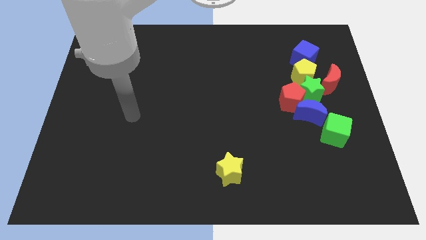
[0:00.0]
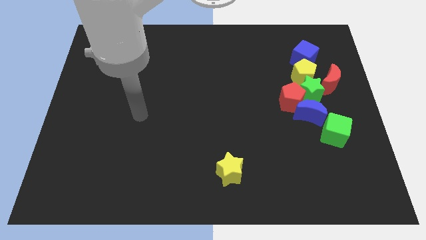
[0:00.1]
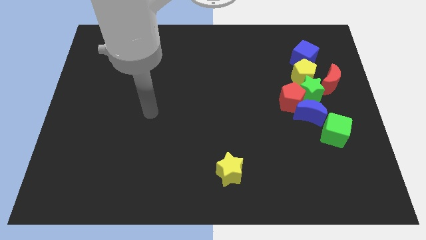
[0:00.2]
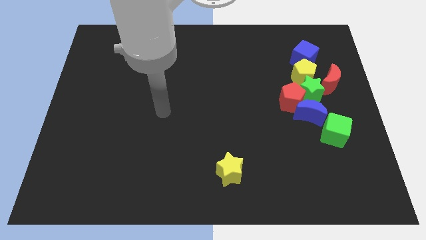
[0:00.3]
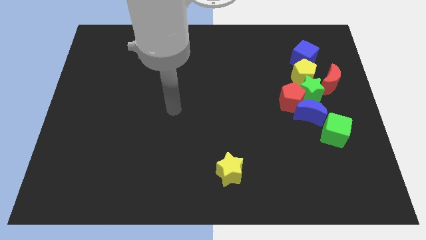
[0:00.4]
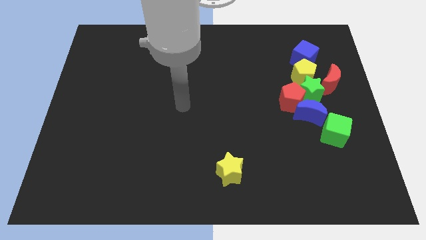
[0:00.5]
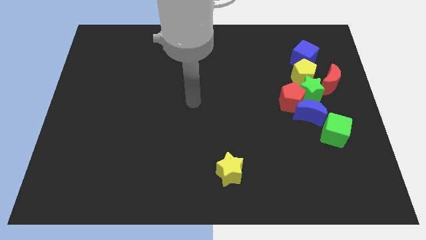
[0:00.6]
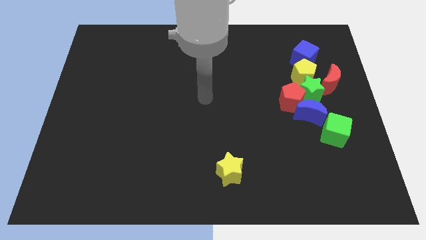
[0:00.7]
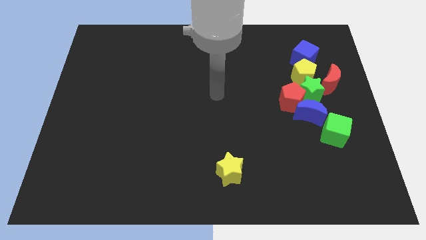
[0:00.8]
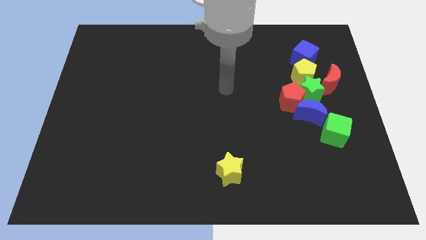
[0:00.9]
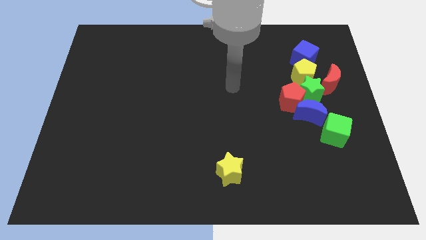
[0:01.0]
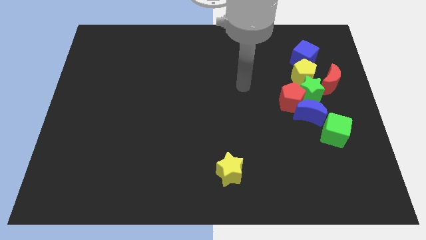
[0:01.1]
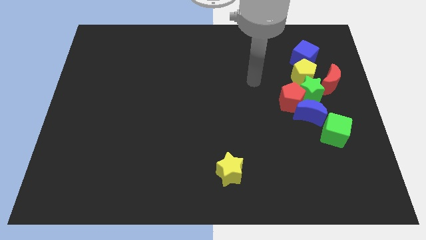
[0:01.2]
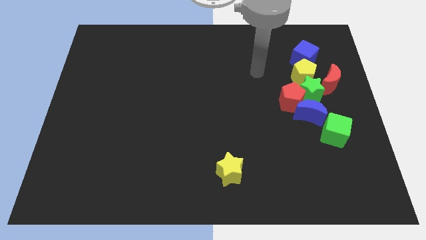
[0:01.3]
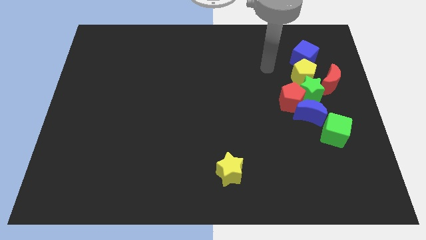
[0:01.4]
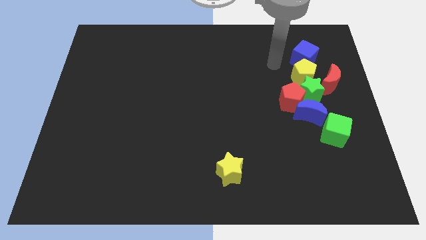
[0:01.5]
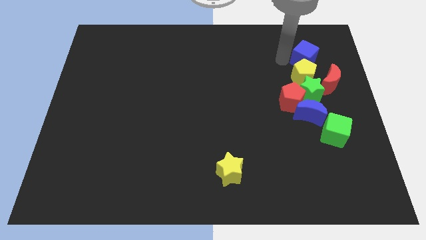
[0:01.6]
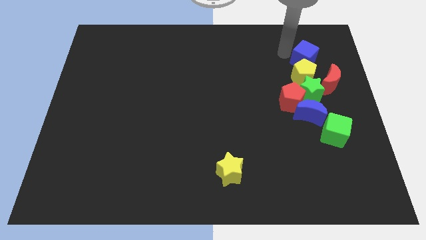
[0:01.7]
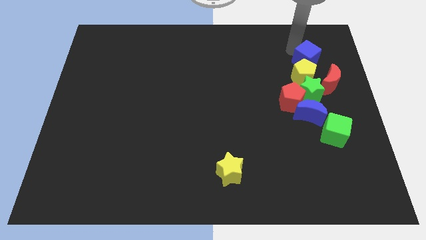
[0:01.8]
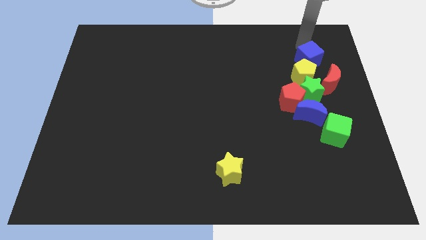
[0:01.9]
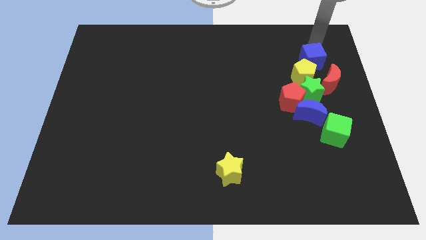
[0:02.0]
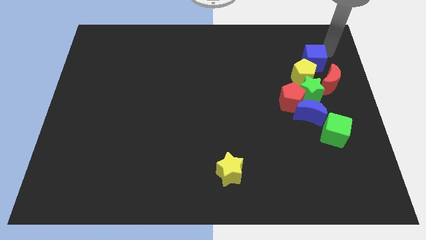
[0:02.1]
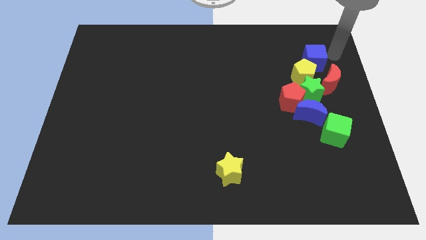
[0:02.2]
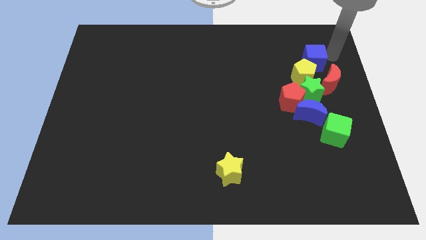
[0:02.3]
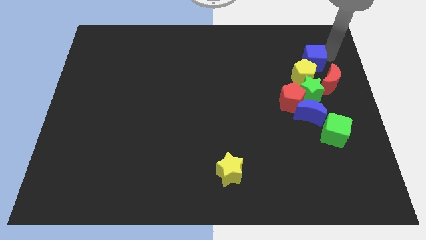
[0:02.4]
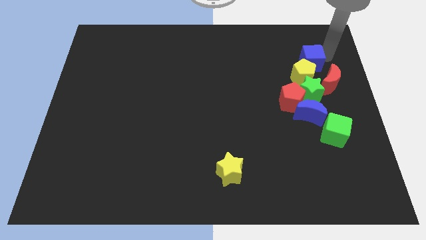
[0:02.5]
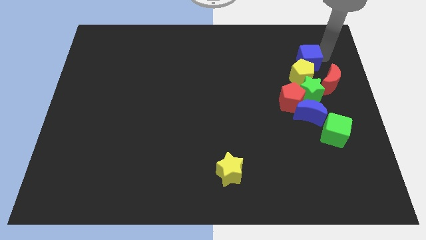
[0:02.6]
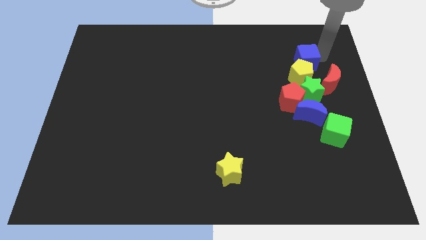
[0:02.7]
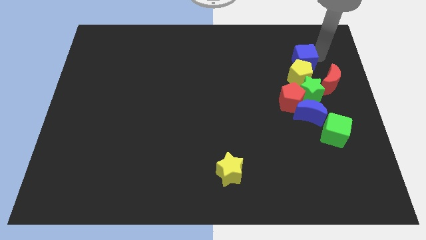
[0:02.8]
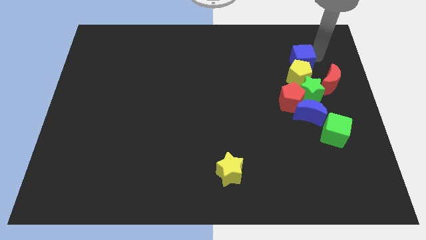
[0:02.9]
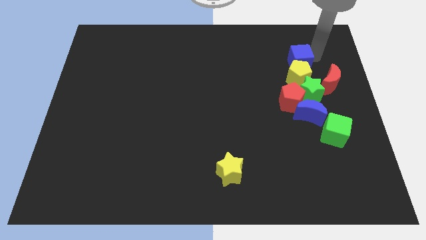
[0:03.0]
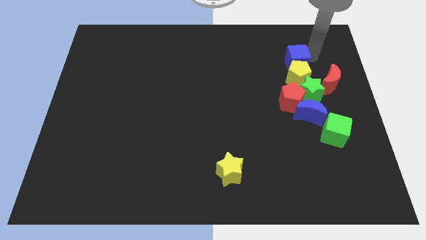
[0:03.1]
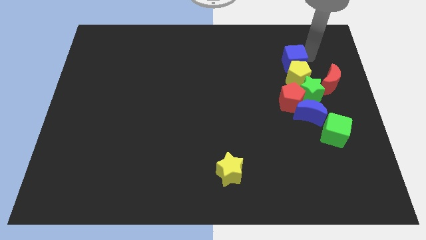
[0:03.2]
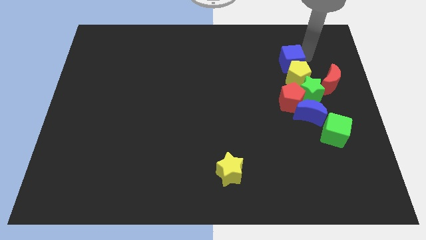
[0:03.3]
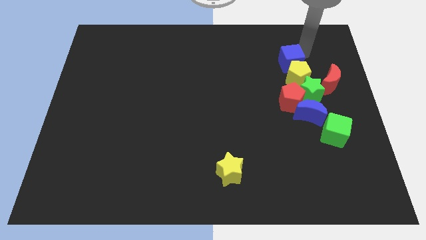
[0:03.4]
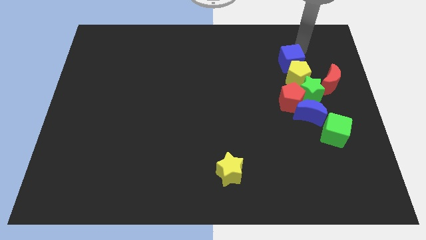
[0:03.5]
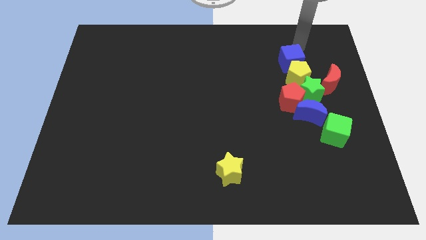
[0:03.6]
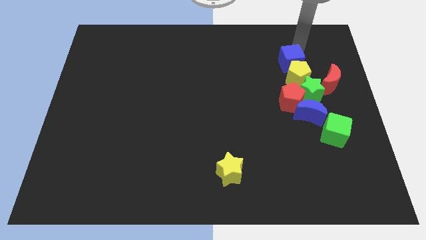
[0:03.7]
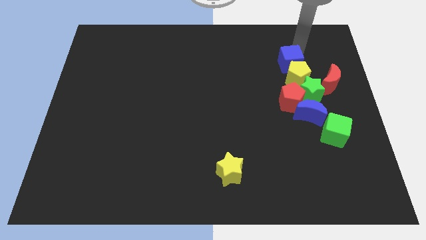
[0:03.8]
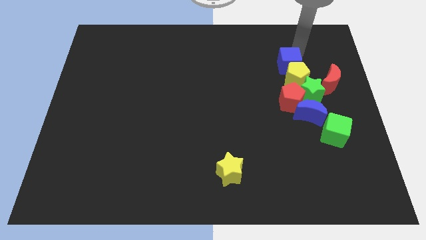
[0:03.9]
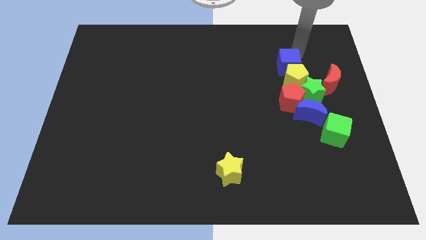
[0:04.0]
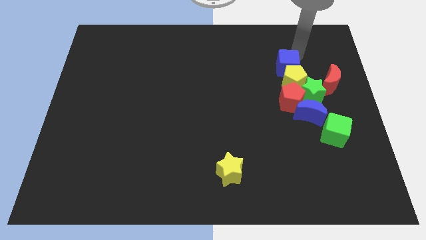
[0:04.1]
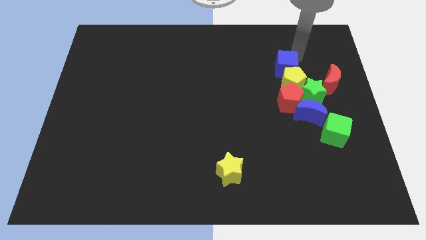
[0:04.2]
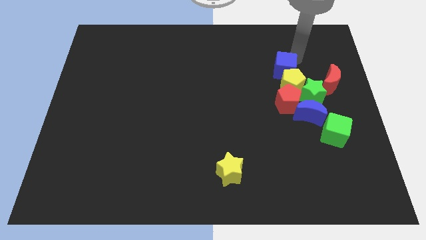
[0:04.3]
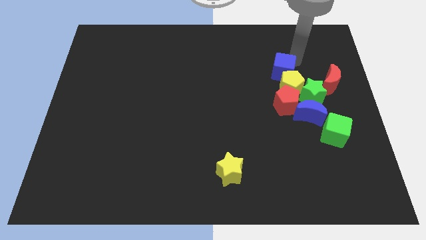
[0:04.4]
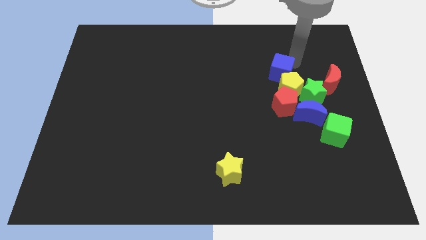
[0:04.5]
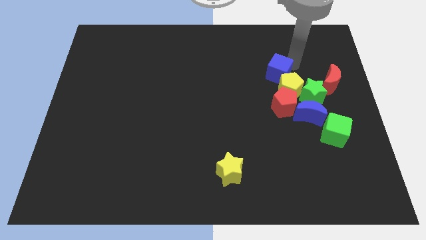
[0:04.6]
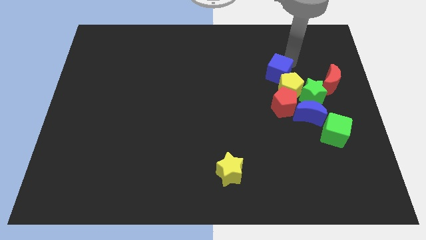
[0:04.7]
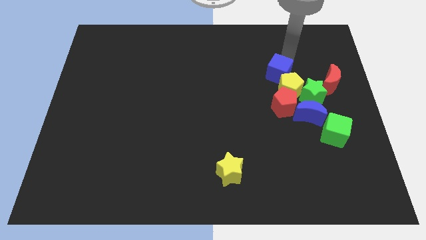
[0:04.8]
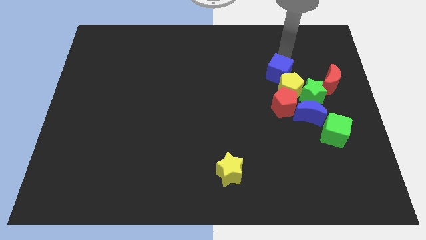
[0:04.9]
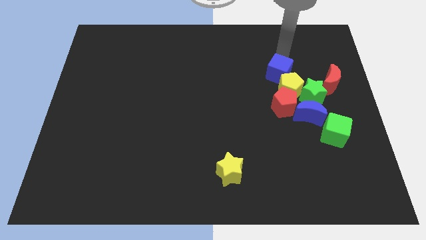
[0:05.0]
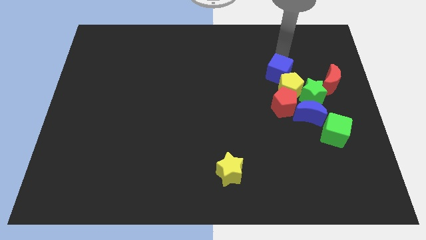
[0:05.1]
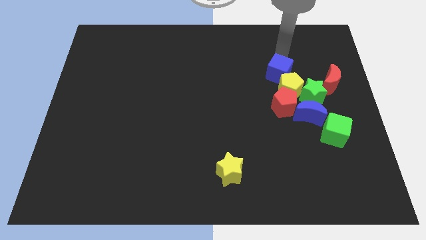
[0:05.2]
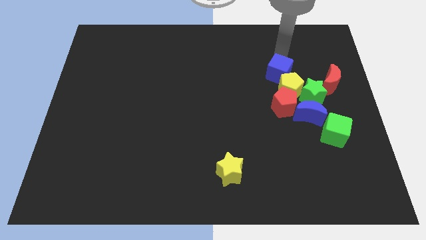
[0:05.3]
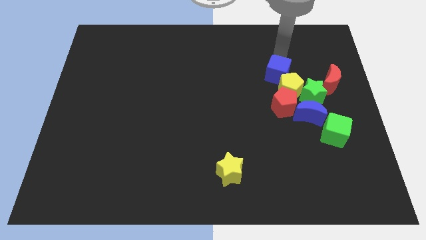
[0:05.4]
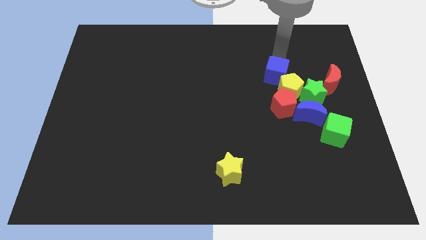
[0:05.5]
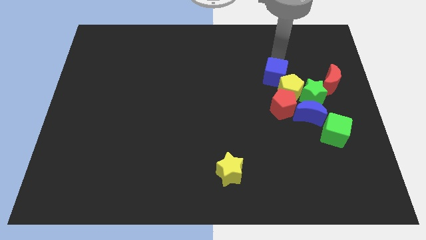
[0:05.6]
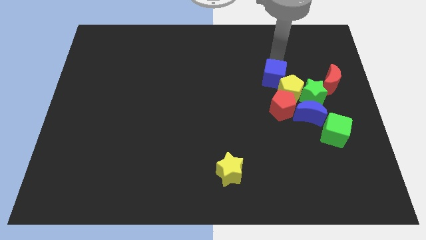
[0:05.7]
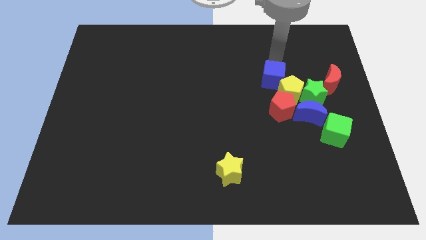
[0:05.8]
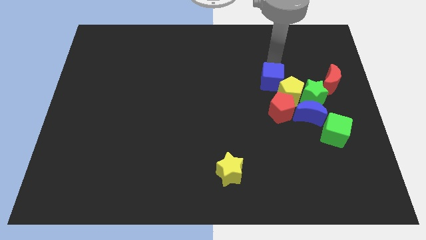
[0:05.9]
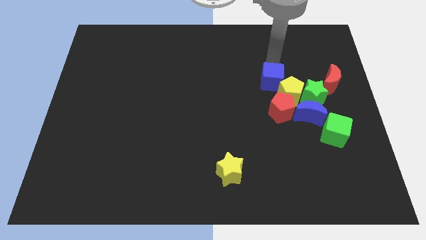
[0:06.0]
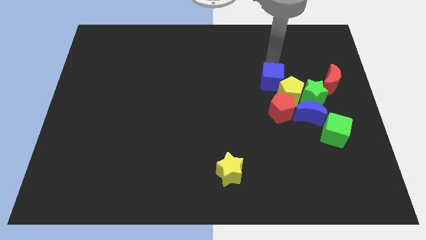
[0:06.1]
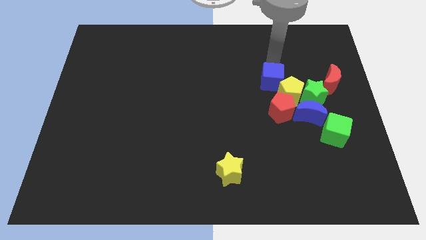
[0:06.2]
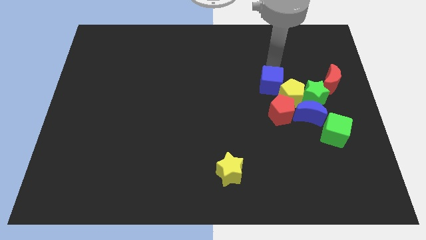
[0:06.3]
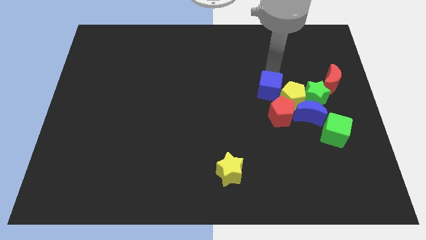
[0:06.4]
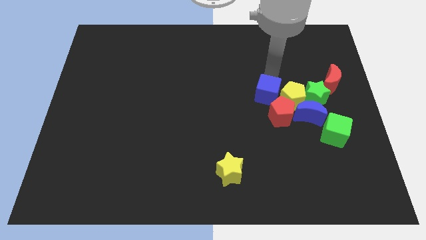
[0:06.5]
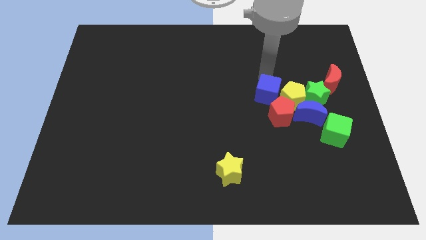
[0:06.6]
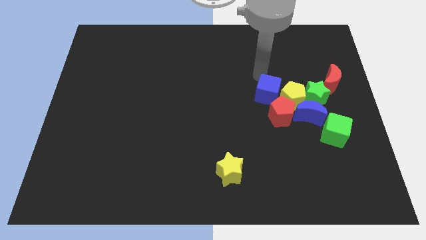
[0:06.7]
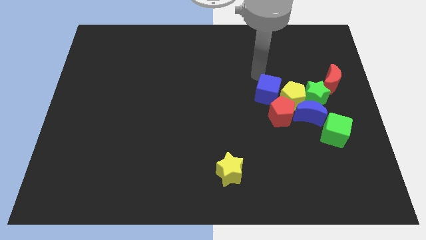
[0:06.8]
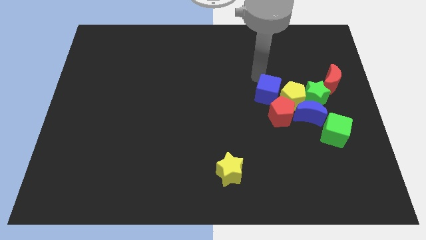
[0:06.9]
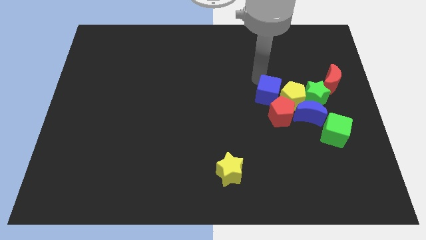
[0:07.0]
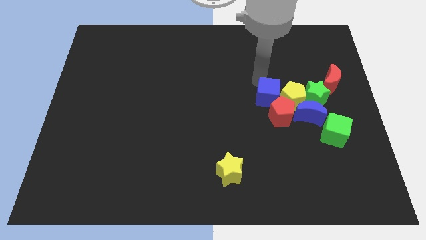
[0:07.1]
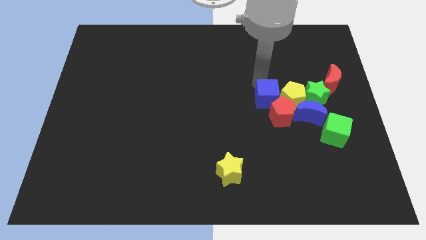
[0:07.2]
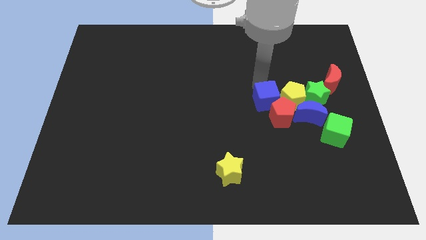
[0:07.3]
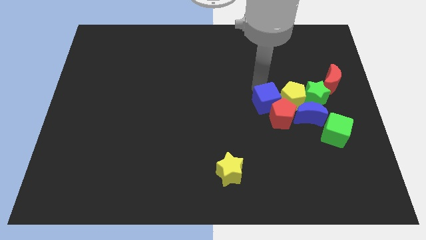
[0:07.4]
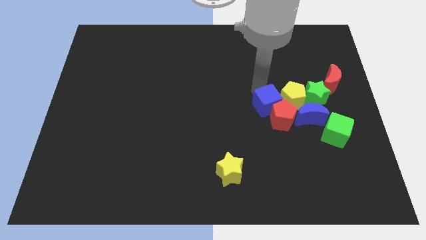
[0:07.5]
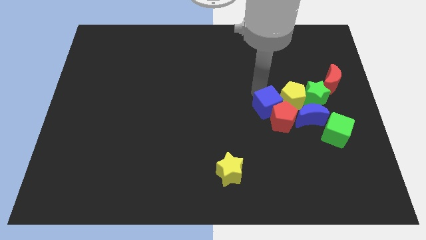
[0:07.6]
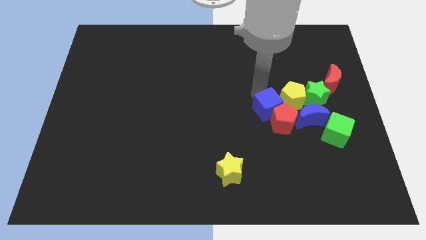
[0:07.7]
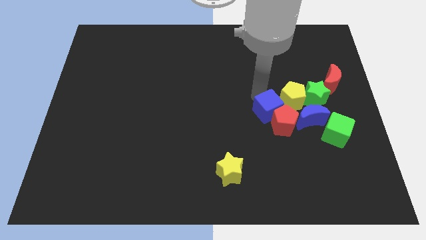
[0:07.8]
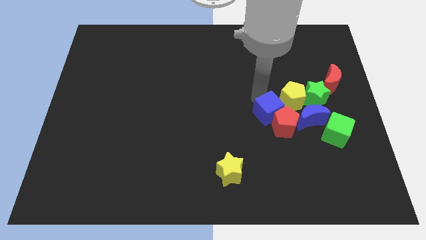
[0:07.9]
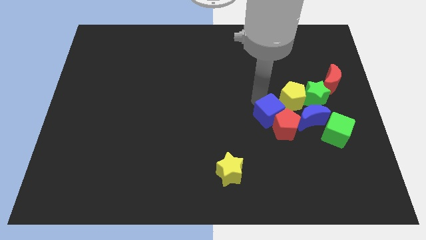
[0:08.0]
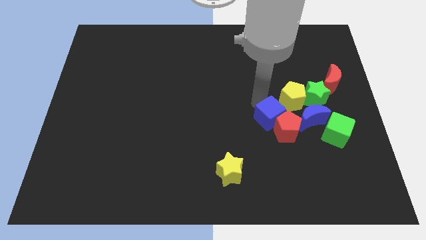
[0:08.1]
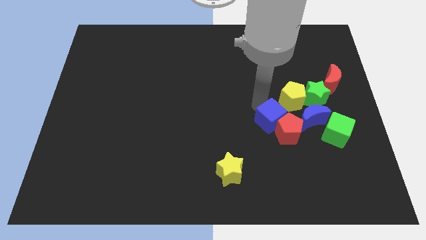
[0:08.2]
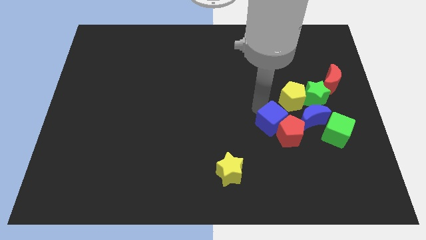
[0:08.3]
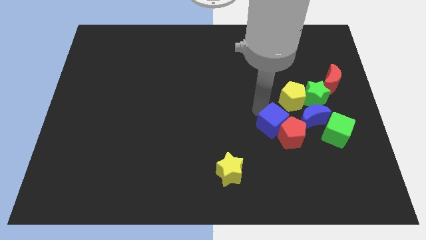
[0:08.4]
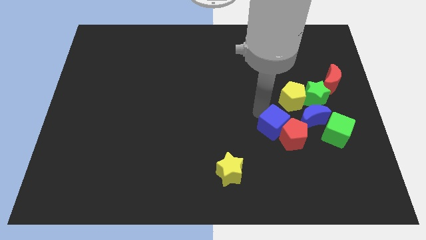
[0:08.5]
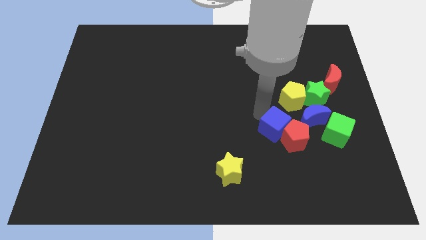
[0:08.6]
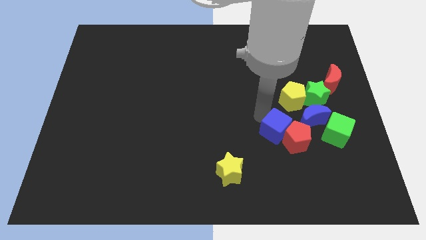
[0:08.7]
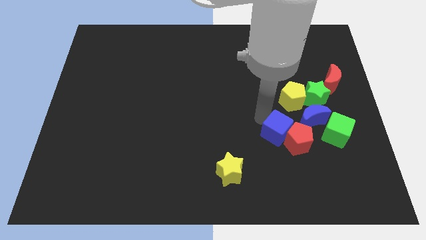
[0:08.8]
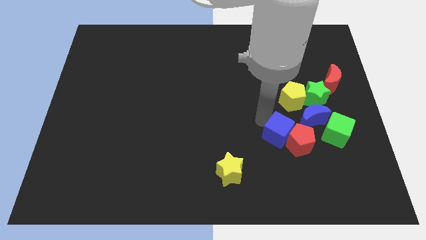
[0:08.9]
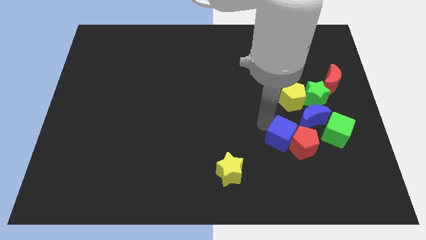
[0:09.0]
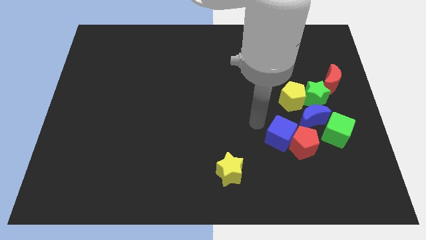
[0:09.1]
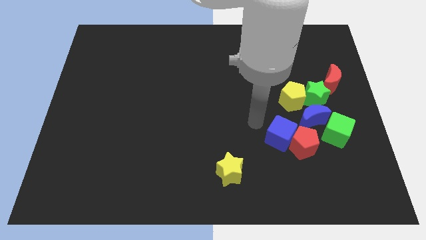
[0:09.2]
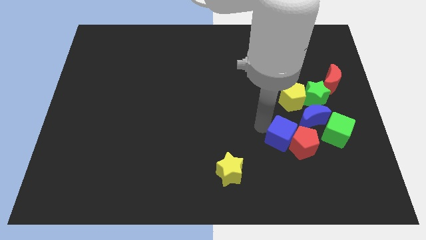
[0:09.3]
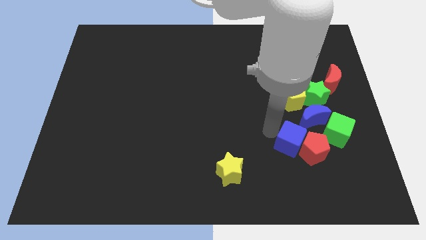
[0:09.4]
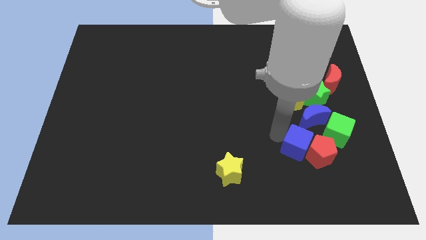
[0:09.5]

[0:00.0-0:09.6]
push the blue cube to the bottom of the blue moon
